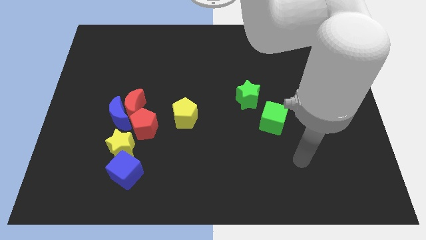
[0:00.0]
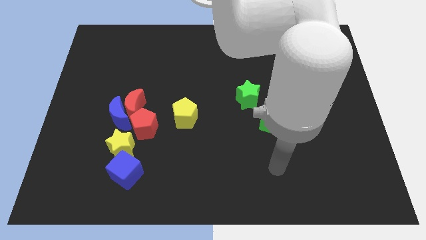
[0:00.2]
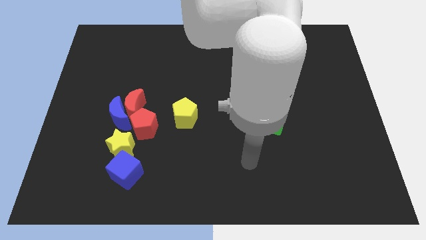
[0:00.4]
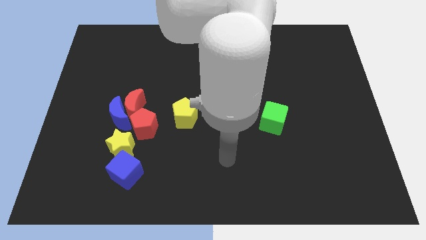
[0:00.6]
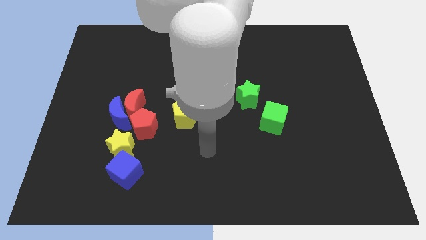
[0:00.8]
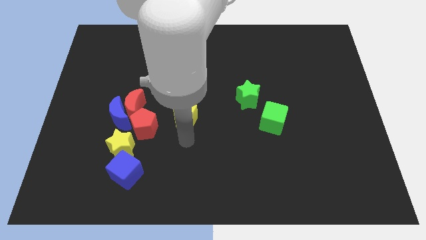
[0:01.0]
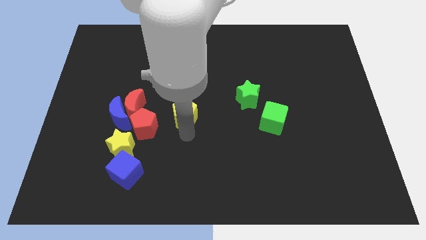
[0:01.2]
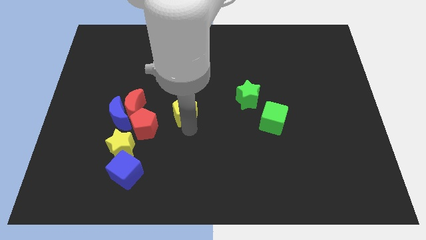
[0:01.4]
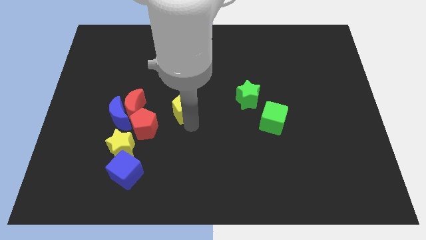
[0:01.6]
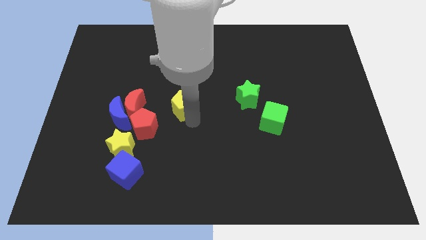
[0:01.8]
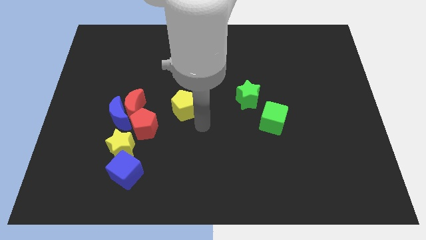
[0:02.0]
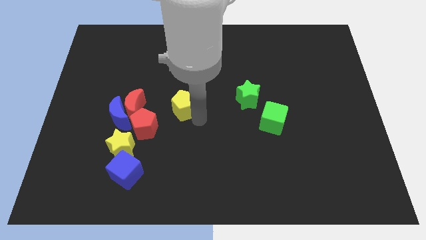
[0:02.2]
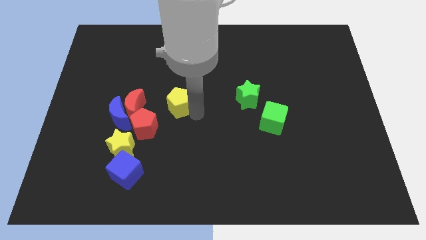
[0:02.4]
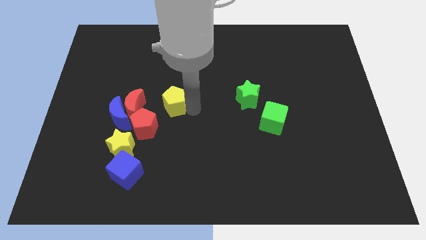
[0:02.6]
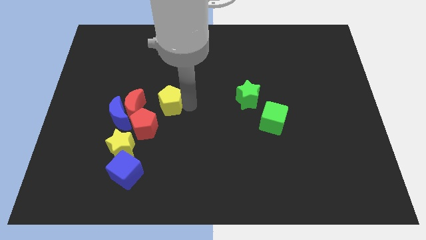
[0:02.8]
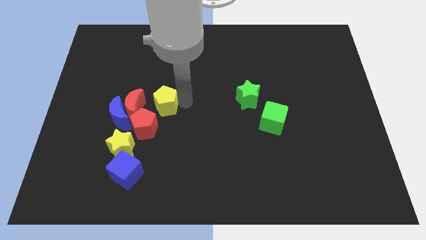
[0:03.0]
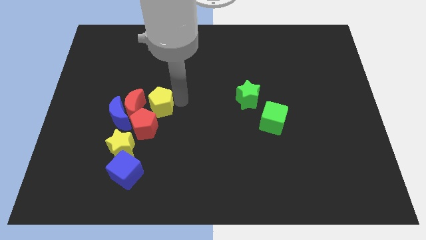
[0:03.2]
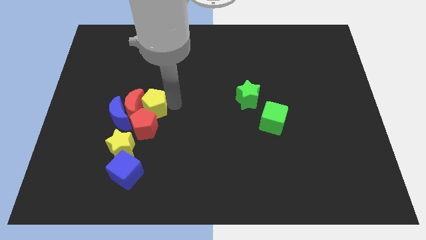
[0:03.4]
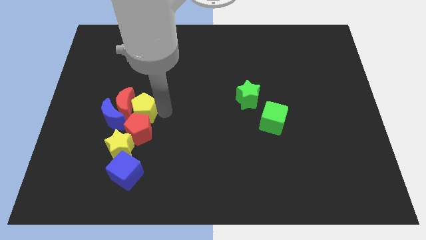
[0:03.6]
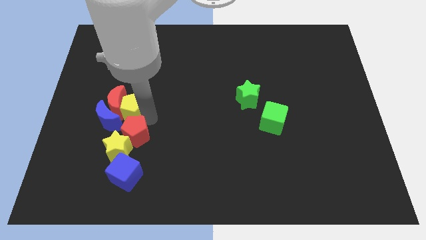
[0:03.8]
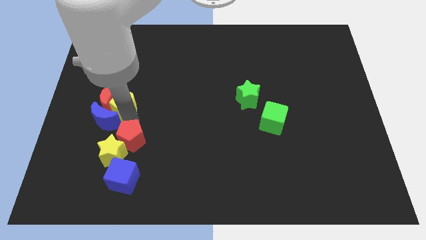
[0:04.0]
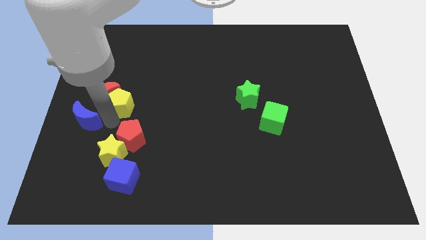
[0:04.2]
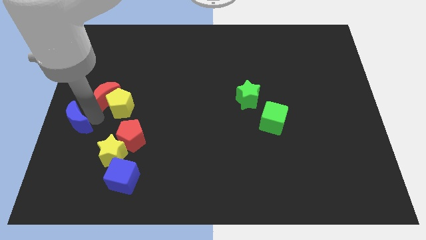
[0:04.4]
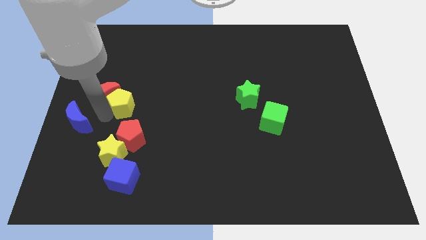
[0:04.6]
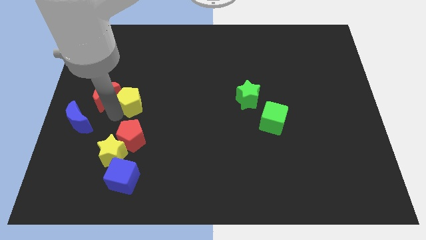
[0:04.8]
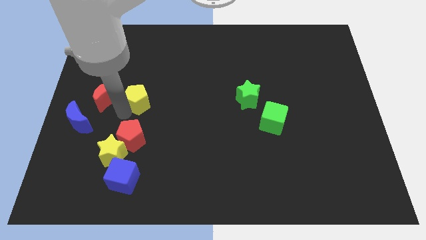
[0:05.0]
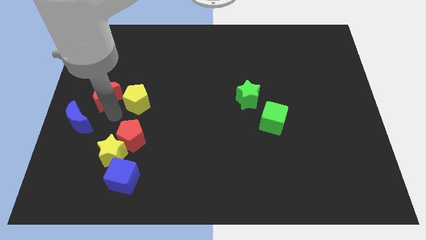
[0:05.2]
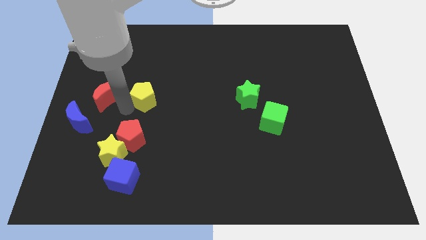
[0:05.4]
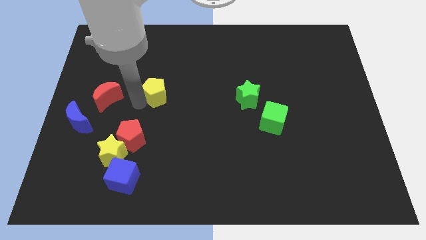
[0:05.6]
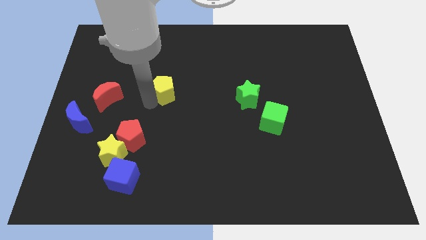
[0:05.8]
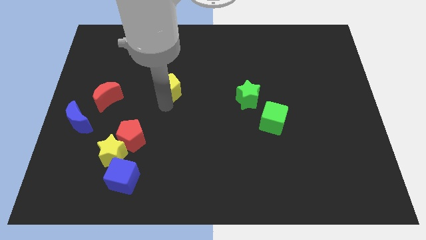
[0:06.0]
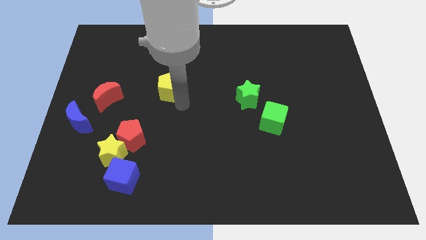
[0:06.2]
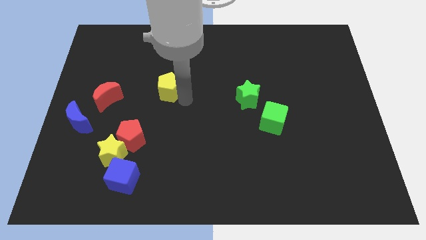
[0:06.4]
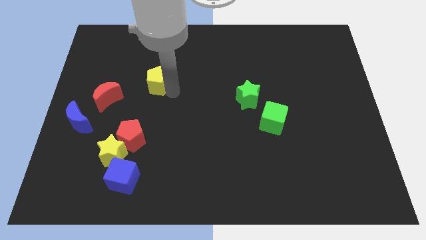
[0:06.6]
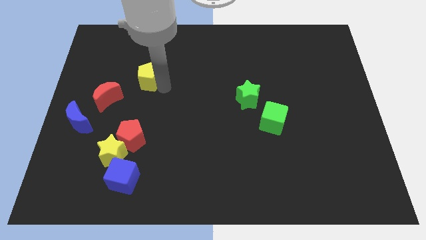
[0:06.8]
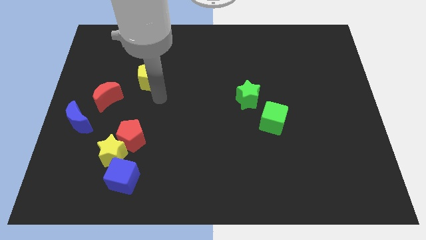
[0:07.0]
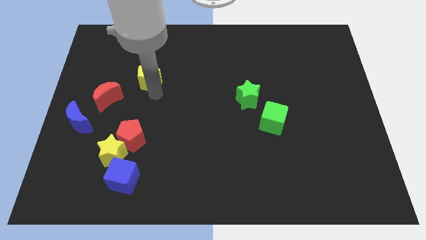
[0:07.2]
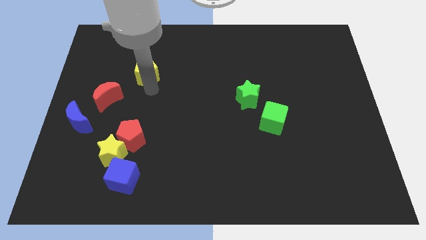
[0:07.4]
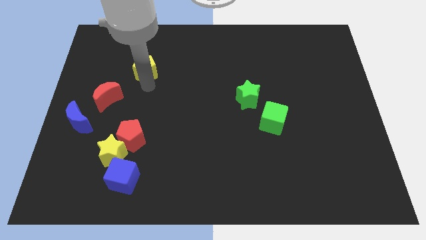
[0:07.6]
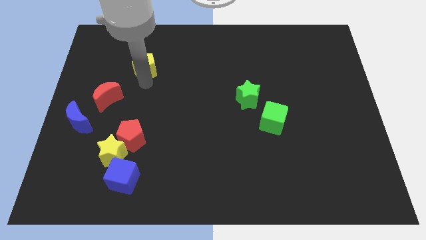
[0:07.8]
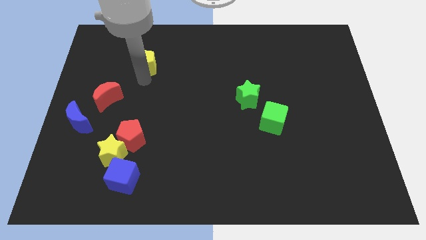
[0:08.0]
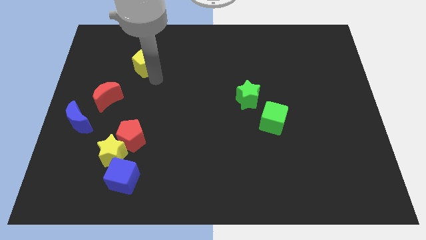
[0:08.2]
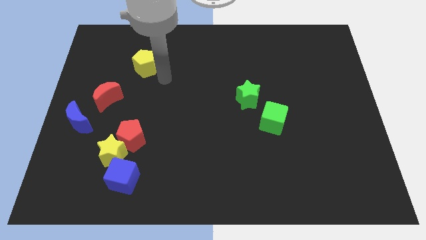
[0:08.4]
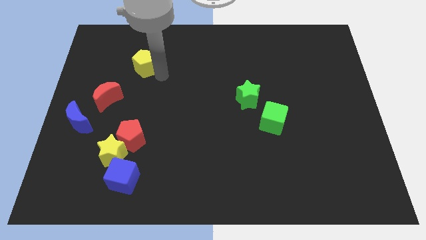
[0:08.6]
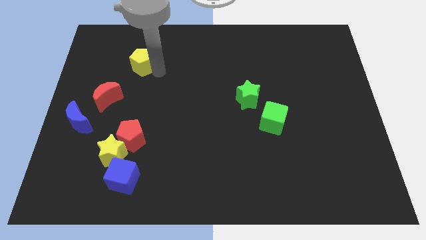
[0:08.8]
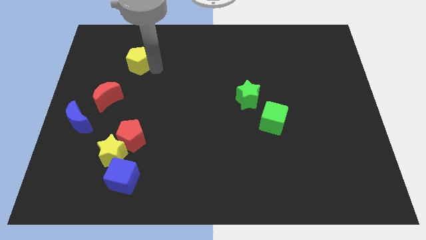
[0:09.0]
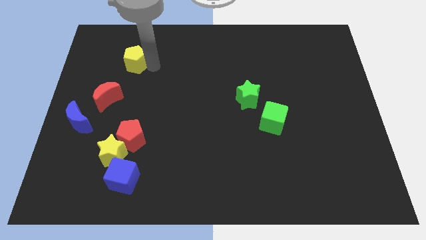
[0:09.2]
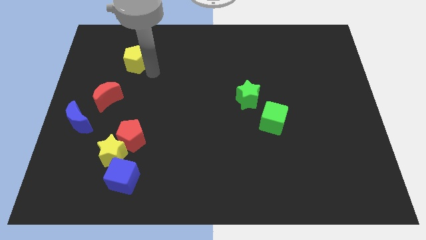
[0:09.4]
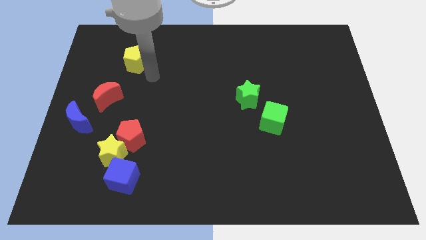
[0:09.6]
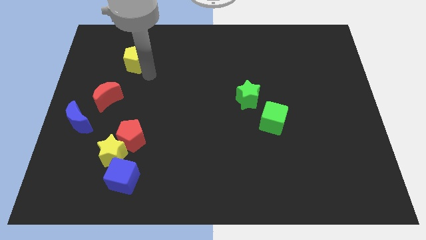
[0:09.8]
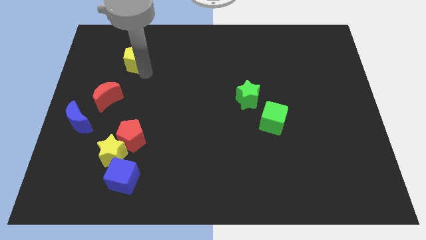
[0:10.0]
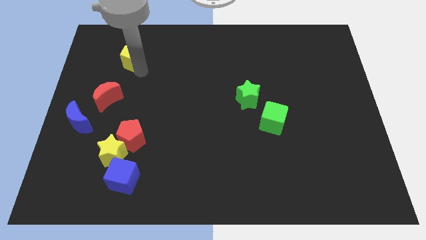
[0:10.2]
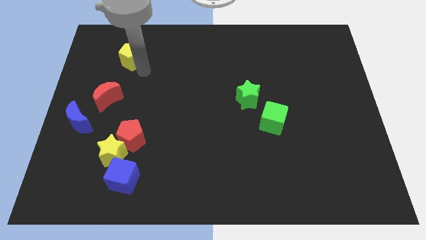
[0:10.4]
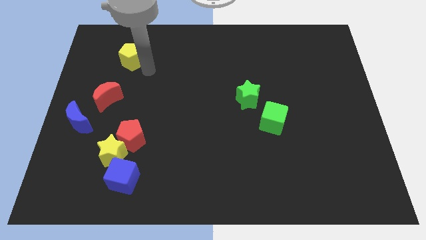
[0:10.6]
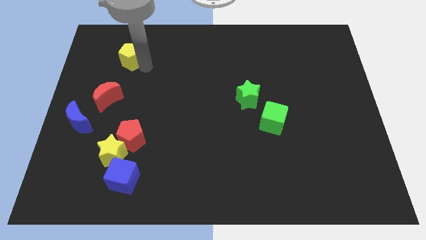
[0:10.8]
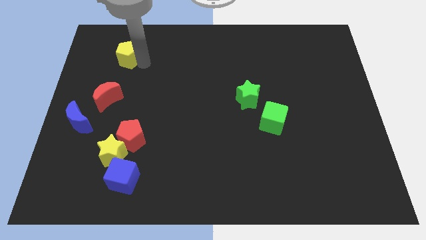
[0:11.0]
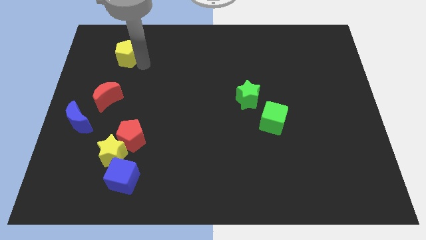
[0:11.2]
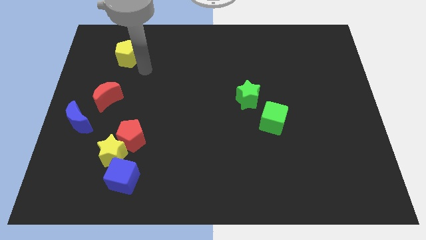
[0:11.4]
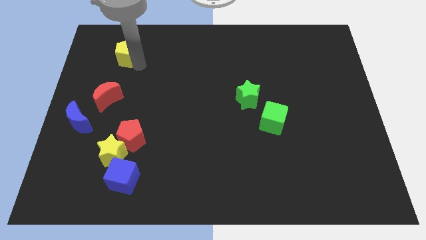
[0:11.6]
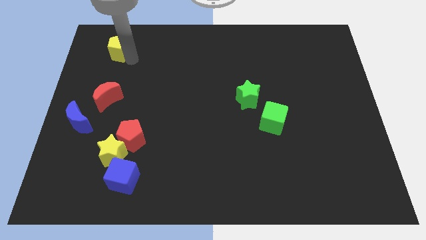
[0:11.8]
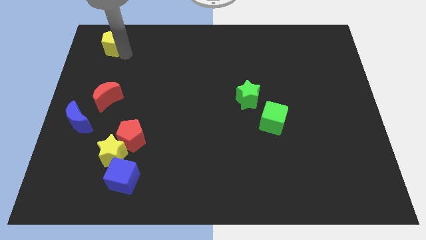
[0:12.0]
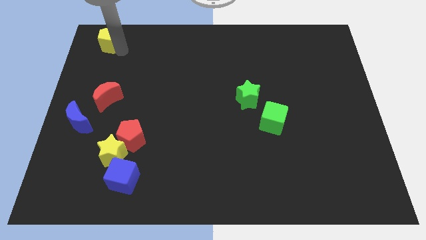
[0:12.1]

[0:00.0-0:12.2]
slide the yellow pentagon to the top left corner

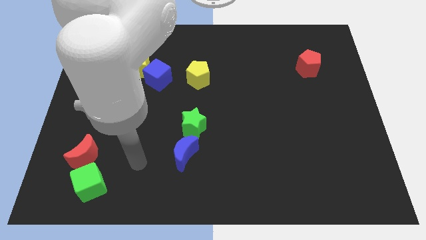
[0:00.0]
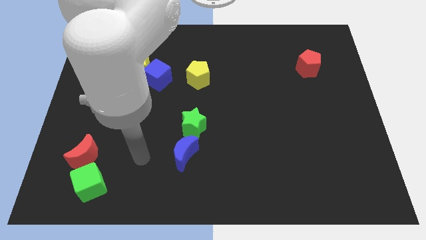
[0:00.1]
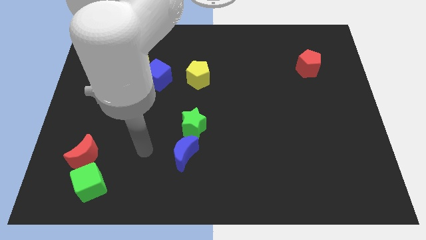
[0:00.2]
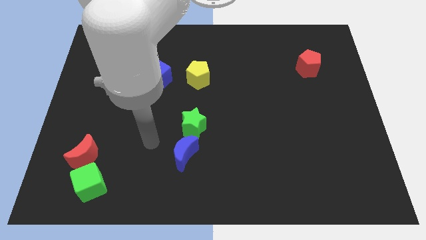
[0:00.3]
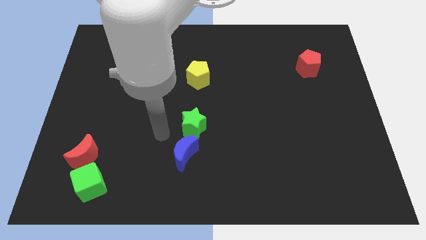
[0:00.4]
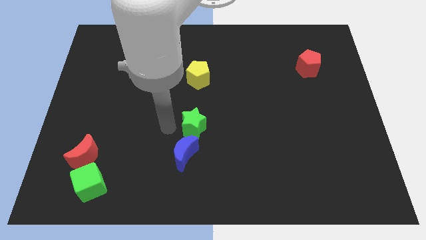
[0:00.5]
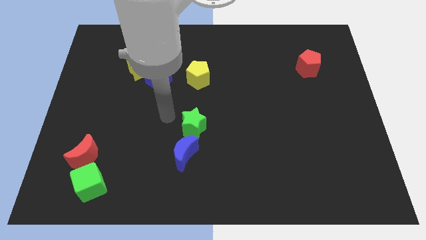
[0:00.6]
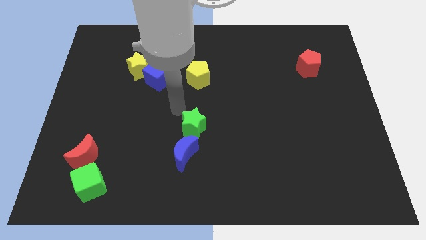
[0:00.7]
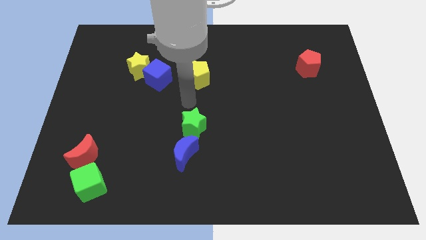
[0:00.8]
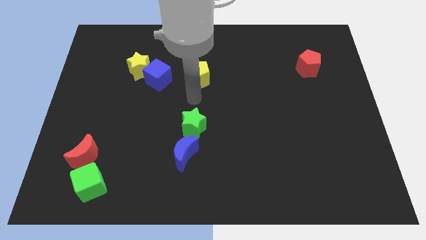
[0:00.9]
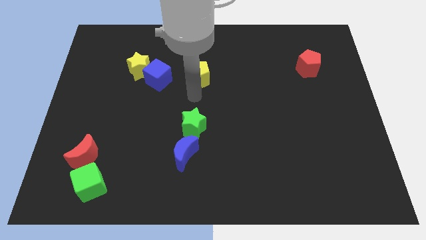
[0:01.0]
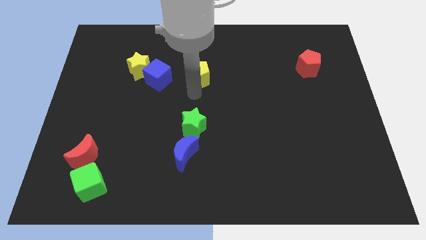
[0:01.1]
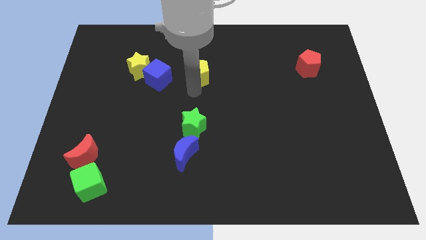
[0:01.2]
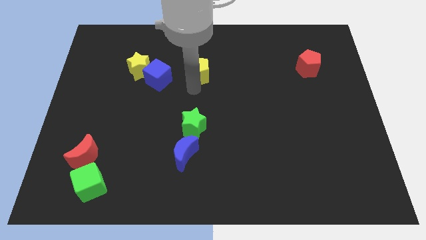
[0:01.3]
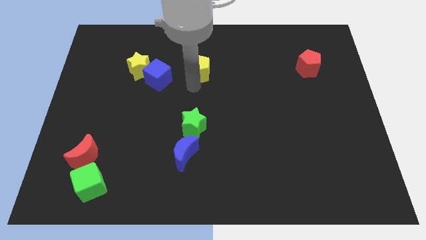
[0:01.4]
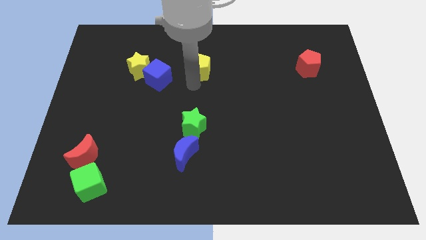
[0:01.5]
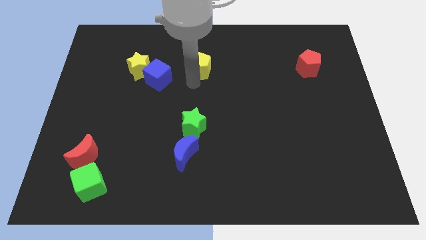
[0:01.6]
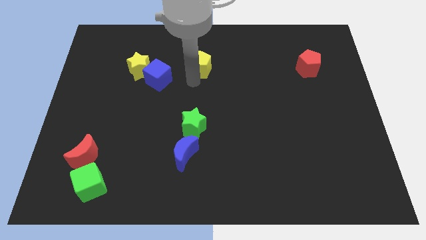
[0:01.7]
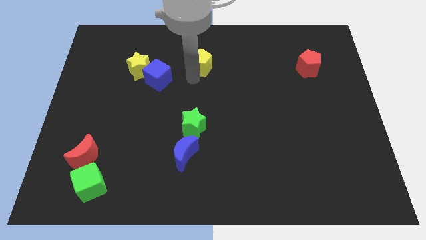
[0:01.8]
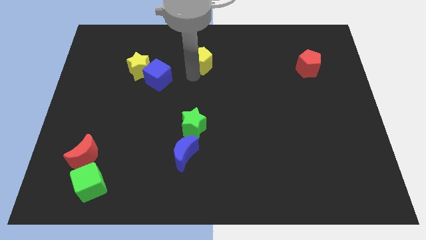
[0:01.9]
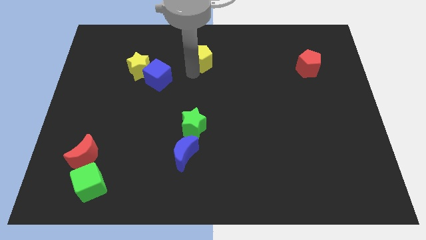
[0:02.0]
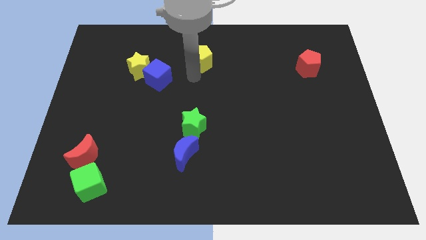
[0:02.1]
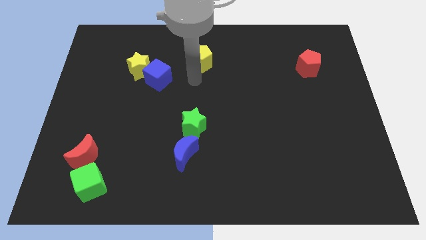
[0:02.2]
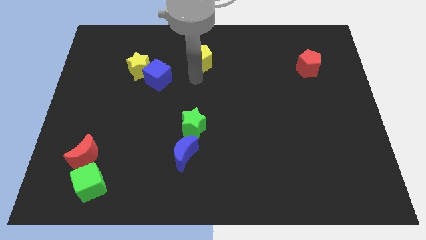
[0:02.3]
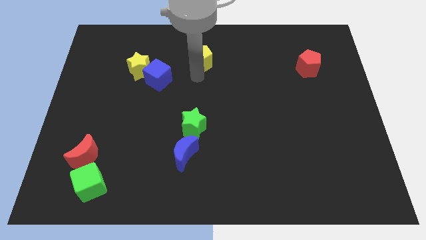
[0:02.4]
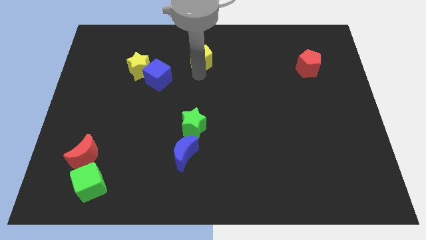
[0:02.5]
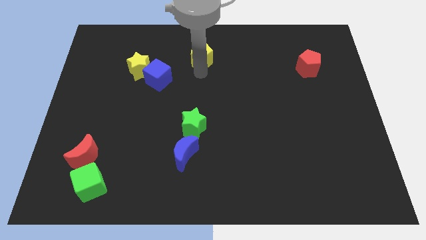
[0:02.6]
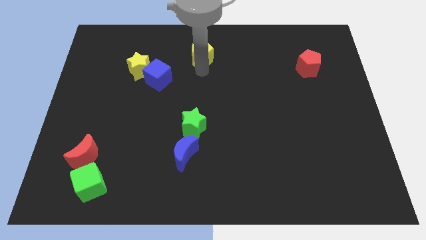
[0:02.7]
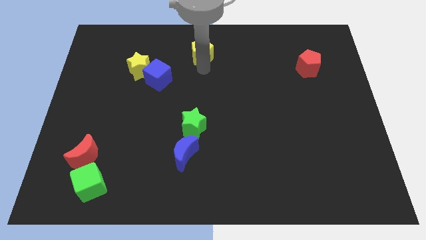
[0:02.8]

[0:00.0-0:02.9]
push the yellow pentagon to the top
